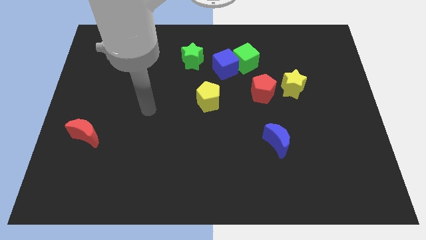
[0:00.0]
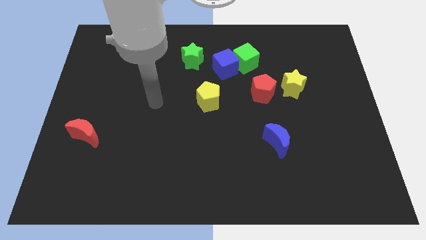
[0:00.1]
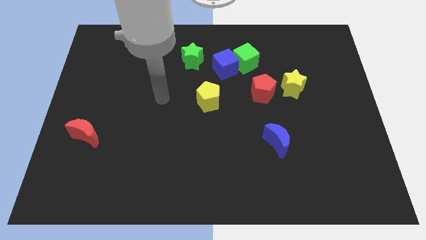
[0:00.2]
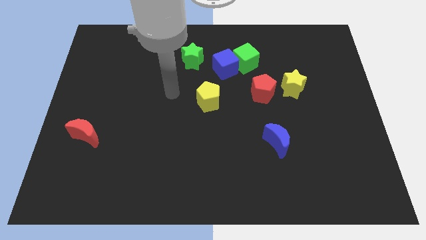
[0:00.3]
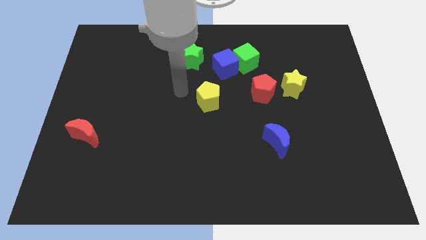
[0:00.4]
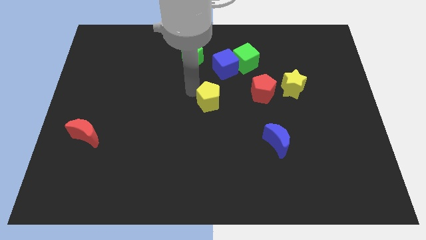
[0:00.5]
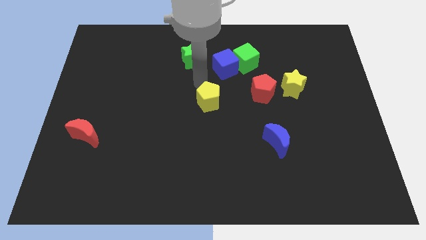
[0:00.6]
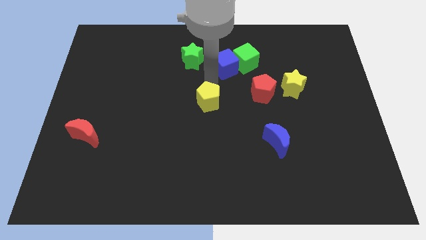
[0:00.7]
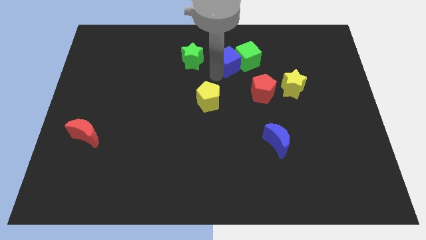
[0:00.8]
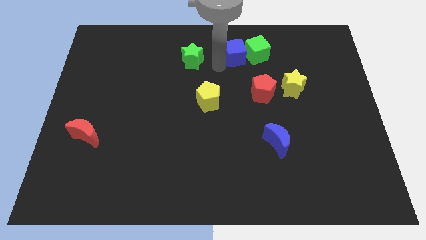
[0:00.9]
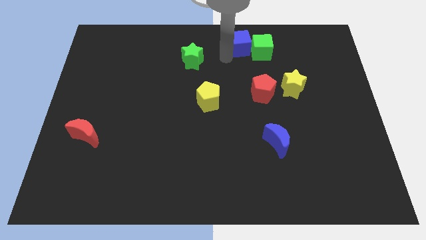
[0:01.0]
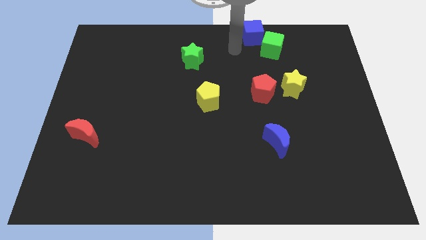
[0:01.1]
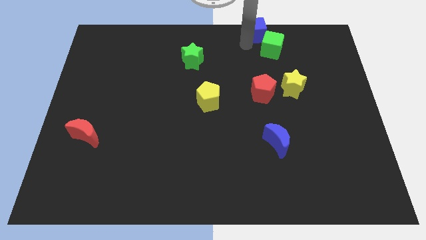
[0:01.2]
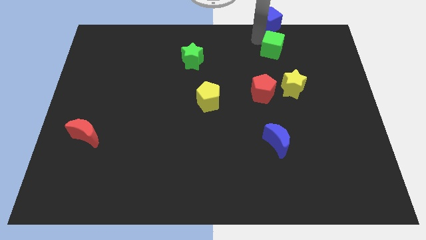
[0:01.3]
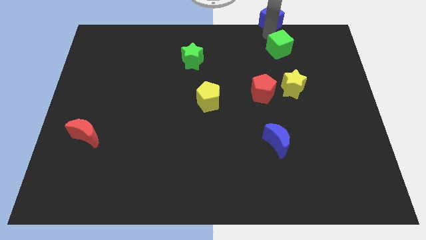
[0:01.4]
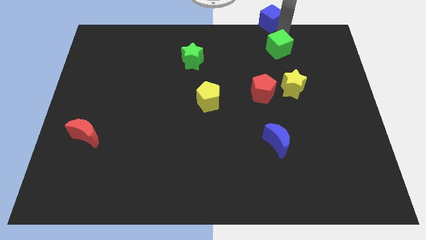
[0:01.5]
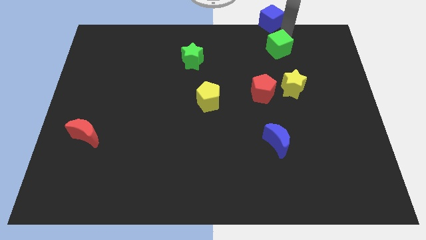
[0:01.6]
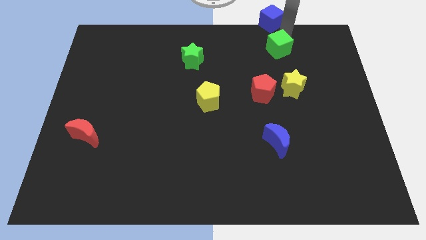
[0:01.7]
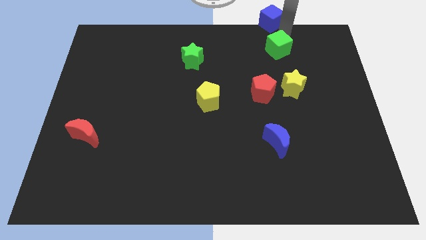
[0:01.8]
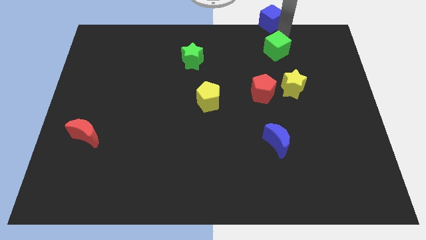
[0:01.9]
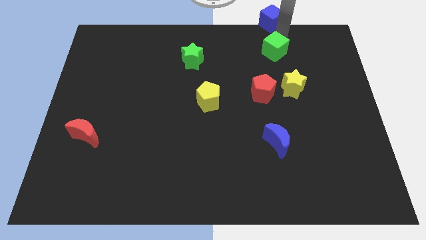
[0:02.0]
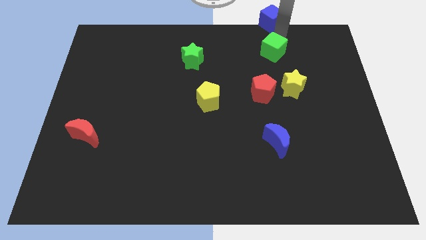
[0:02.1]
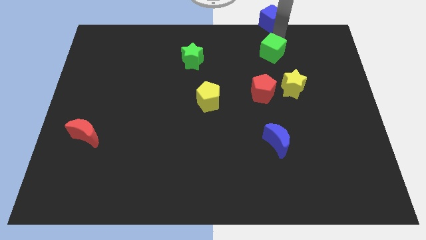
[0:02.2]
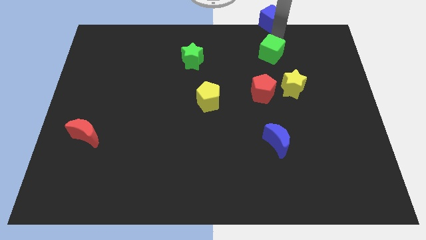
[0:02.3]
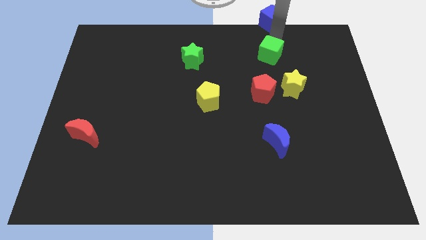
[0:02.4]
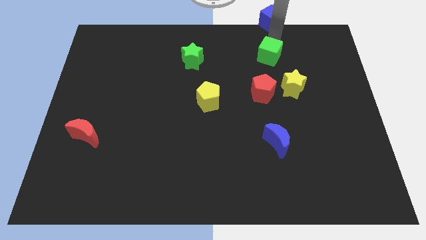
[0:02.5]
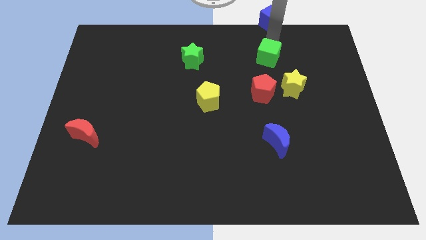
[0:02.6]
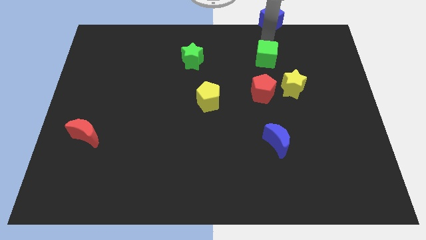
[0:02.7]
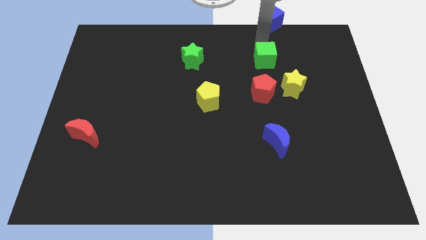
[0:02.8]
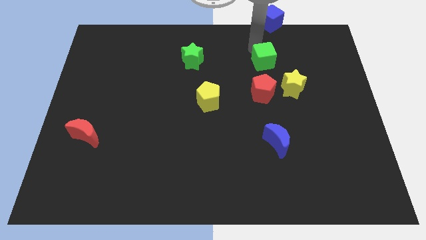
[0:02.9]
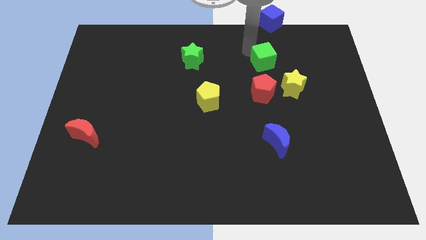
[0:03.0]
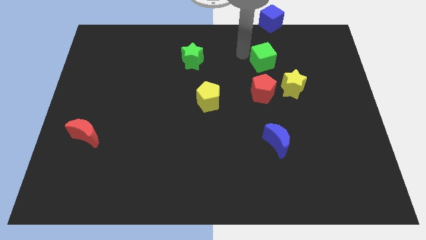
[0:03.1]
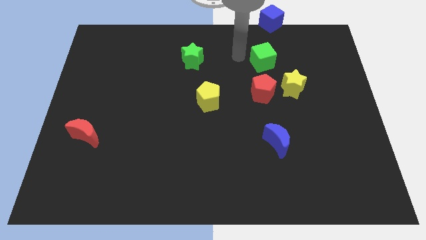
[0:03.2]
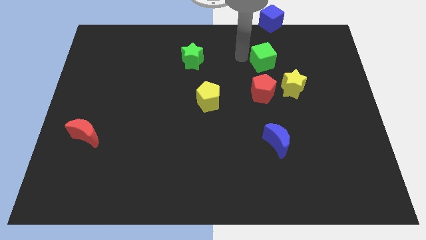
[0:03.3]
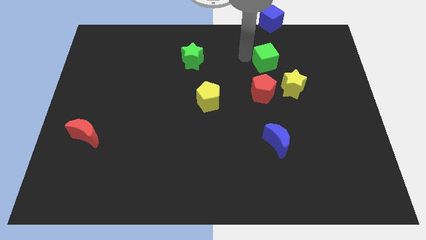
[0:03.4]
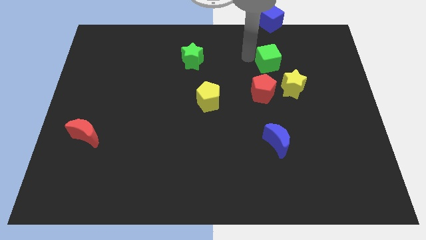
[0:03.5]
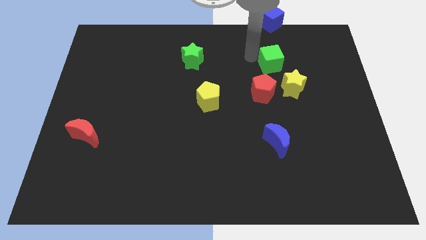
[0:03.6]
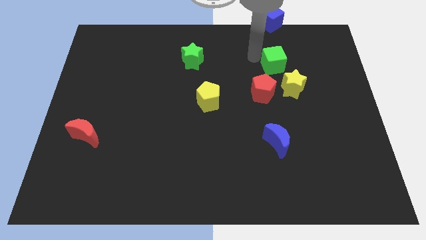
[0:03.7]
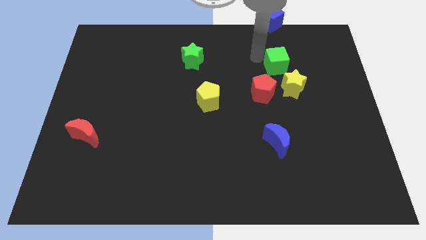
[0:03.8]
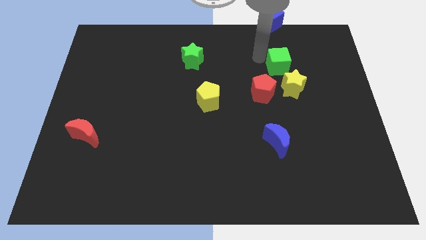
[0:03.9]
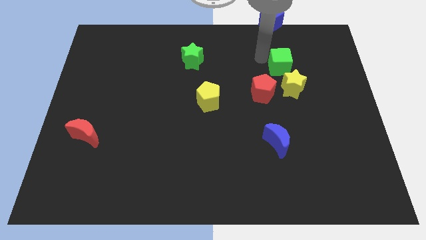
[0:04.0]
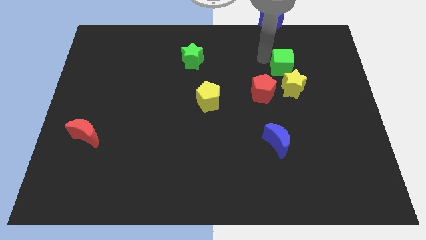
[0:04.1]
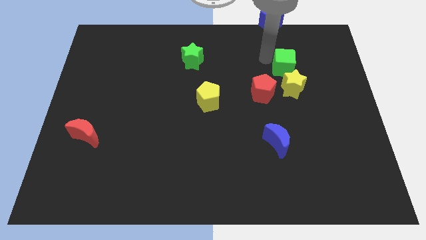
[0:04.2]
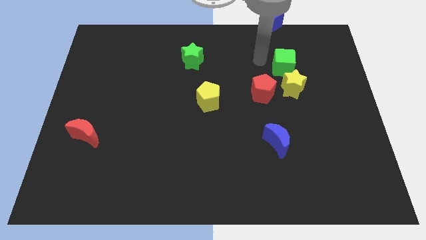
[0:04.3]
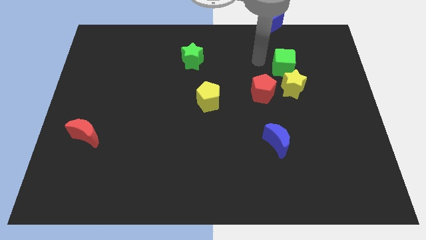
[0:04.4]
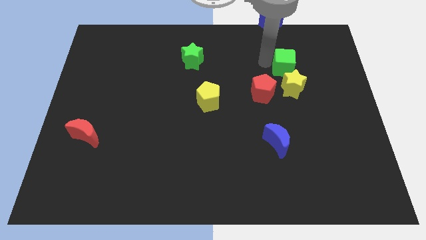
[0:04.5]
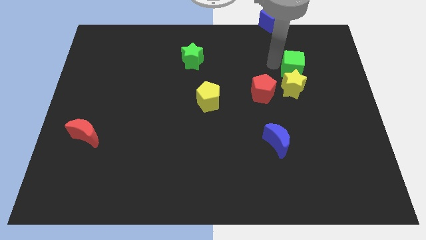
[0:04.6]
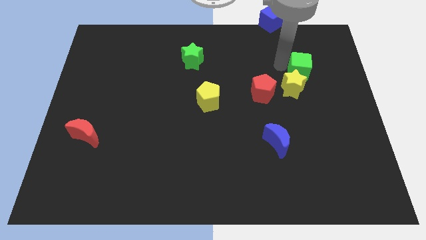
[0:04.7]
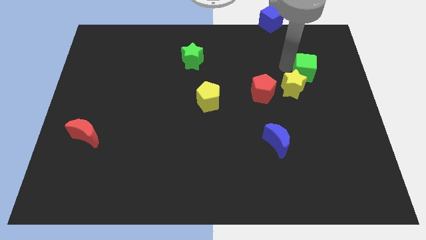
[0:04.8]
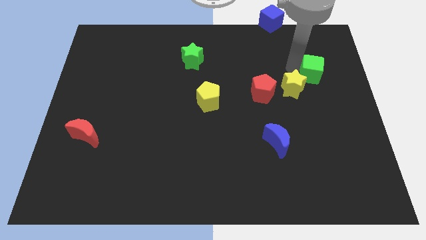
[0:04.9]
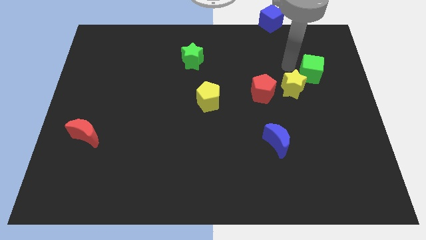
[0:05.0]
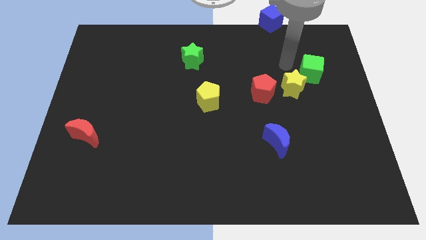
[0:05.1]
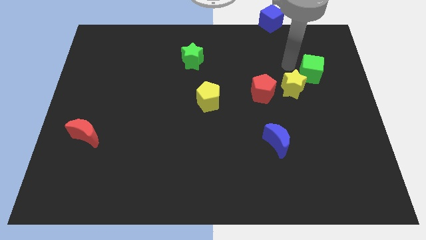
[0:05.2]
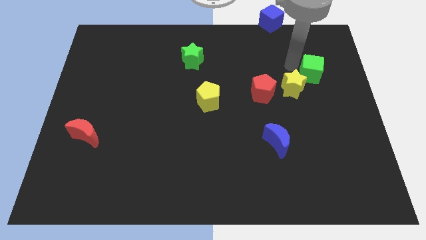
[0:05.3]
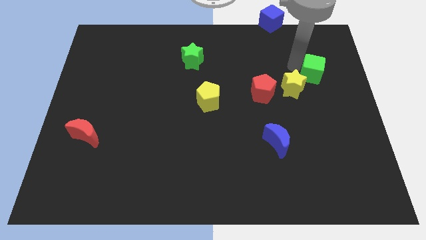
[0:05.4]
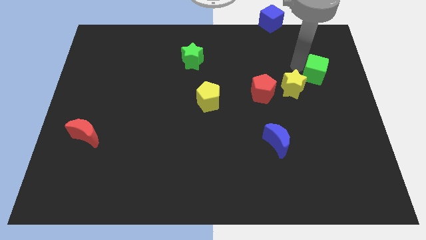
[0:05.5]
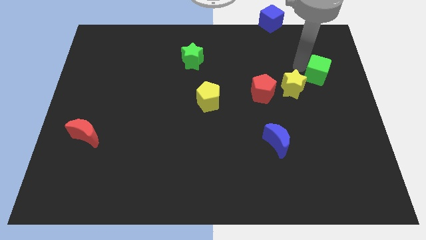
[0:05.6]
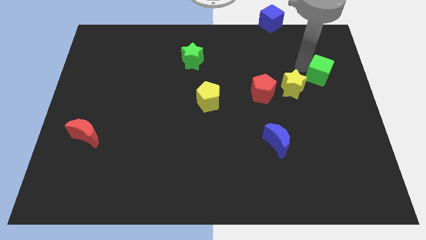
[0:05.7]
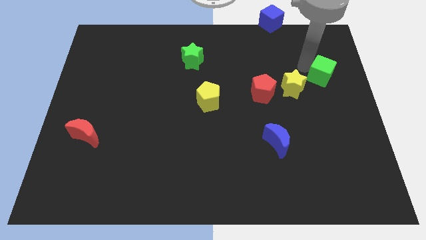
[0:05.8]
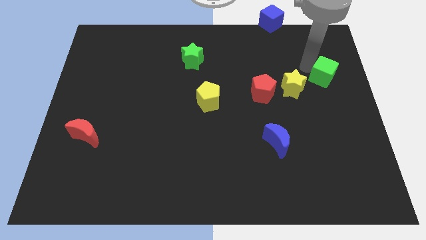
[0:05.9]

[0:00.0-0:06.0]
slide the green cube to the right side

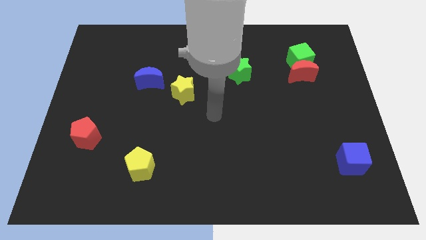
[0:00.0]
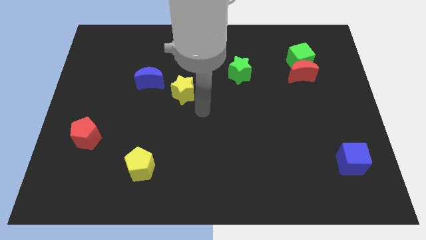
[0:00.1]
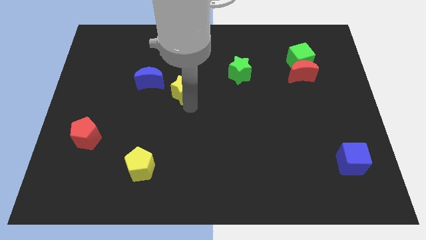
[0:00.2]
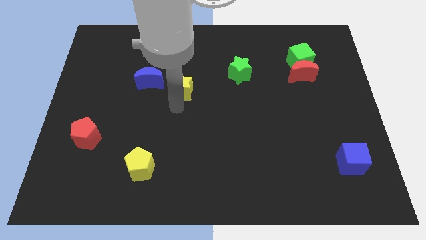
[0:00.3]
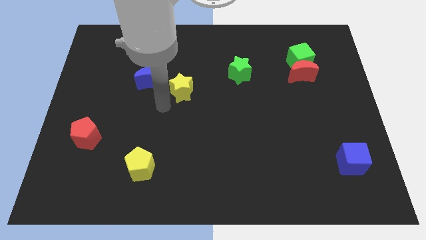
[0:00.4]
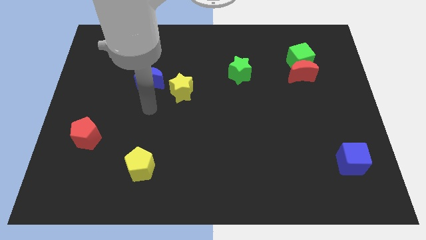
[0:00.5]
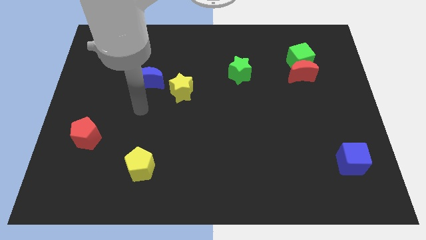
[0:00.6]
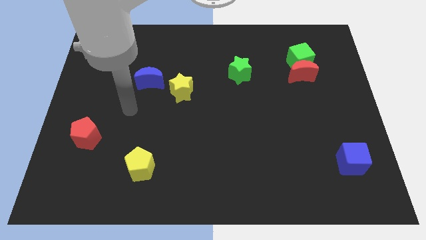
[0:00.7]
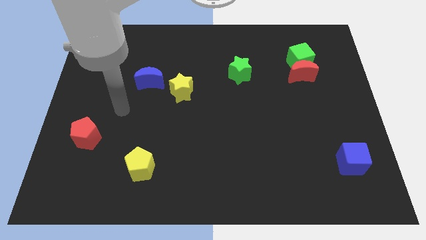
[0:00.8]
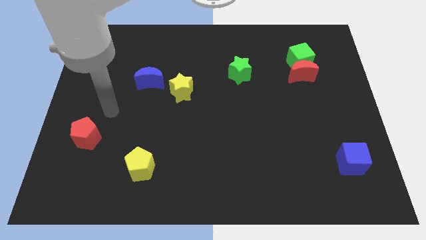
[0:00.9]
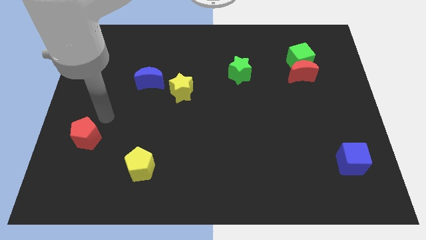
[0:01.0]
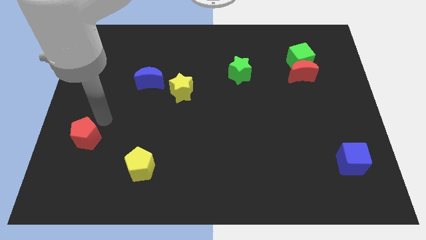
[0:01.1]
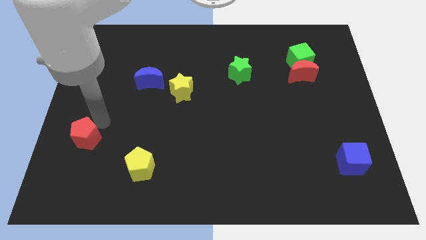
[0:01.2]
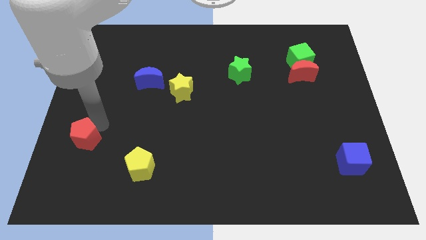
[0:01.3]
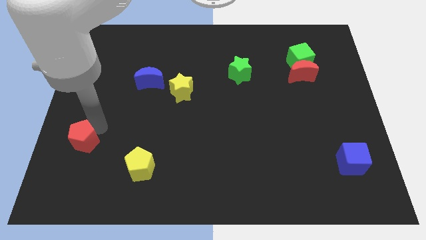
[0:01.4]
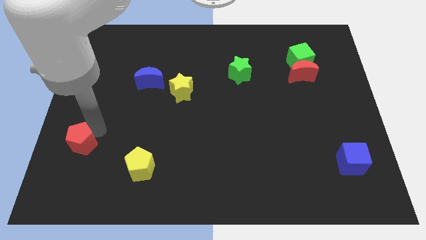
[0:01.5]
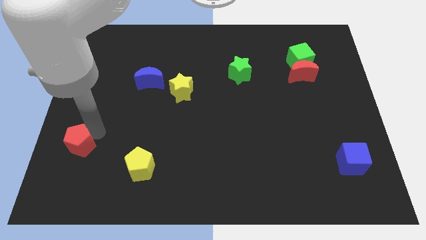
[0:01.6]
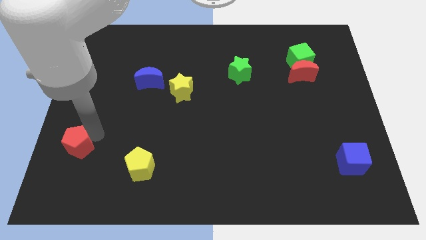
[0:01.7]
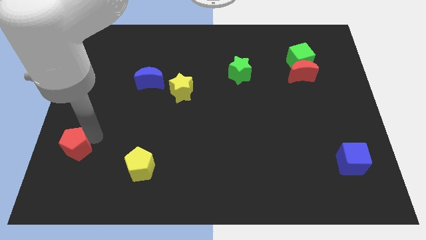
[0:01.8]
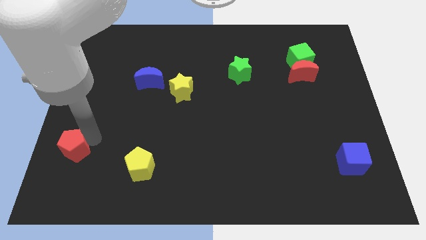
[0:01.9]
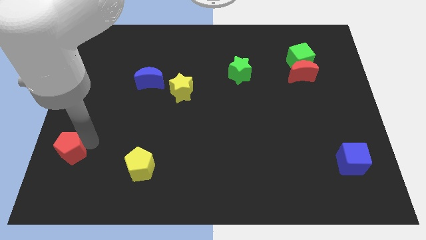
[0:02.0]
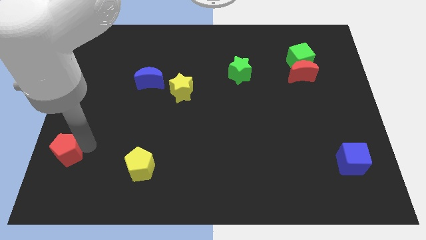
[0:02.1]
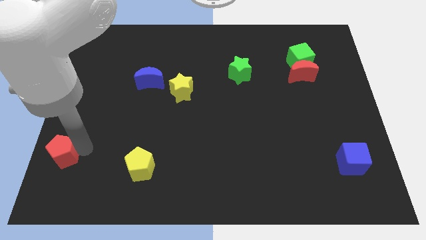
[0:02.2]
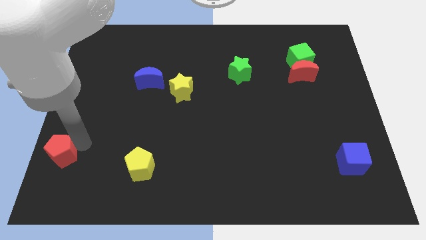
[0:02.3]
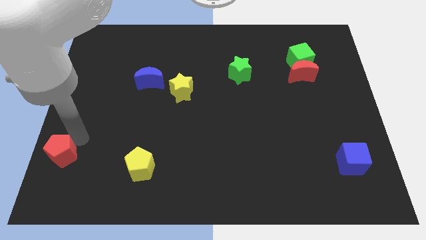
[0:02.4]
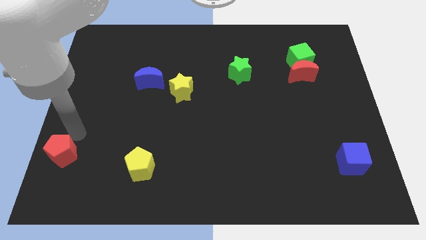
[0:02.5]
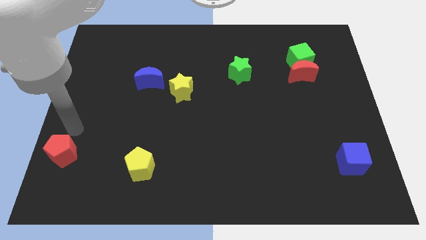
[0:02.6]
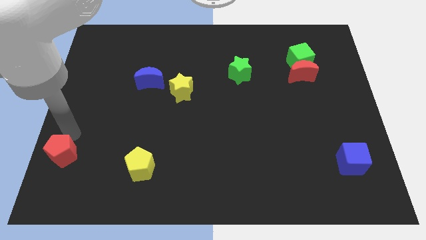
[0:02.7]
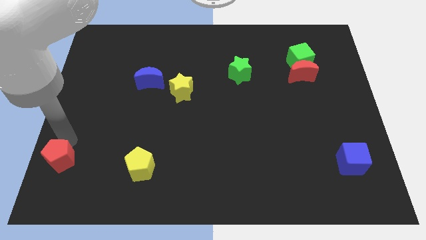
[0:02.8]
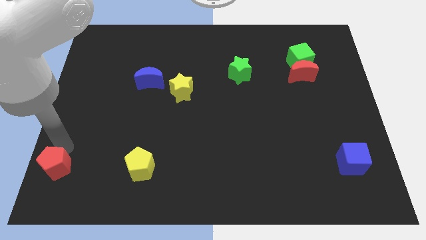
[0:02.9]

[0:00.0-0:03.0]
slide the red pentagon to the bottom left corner
